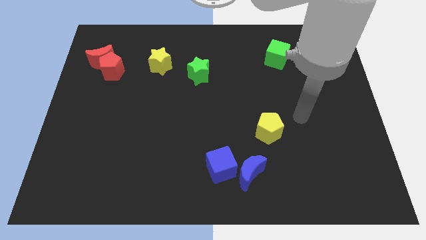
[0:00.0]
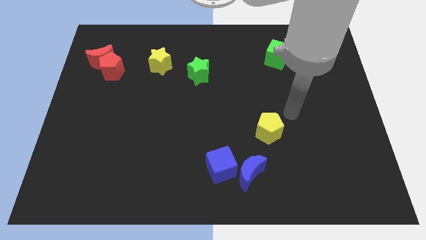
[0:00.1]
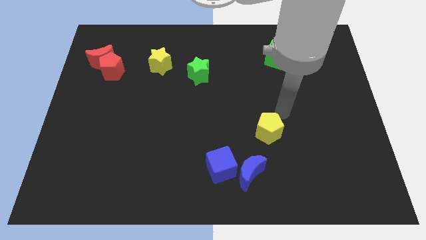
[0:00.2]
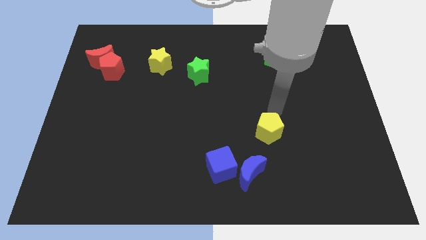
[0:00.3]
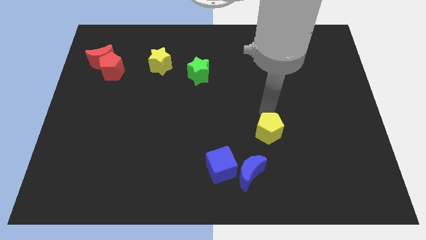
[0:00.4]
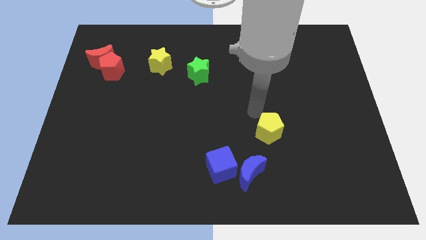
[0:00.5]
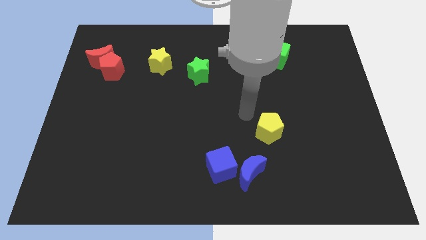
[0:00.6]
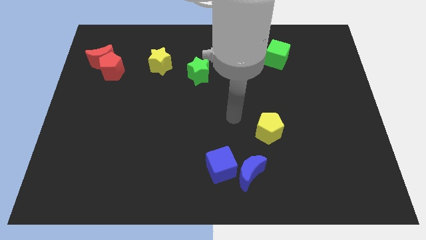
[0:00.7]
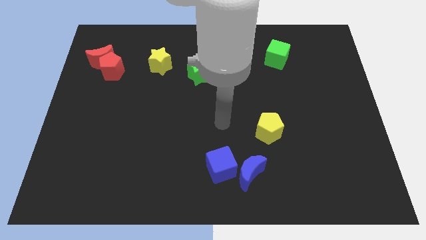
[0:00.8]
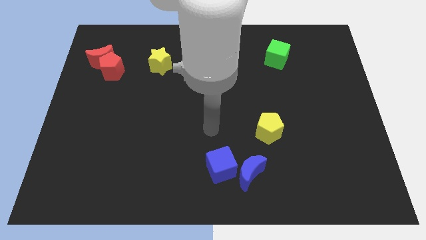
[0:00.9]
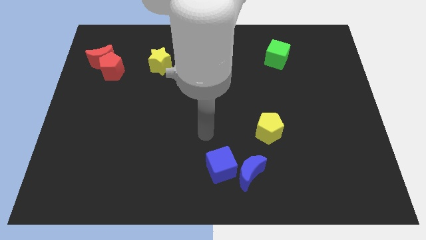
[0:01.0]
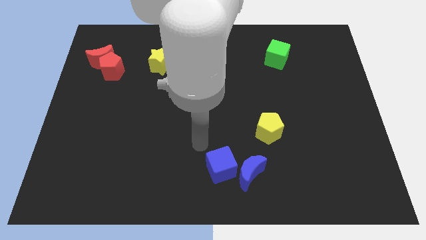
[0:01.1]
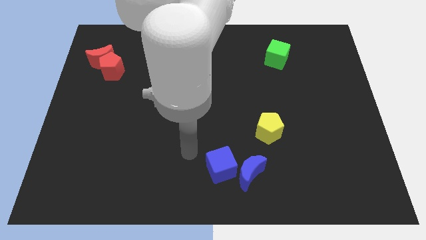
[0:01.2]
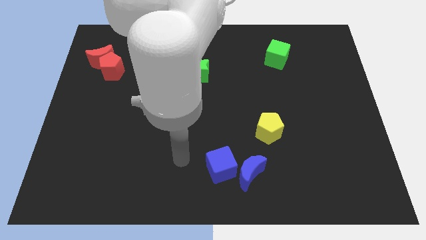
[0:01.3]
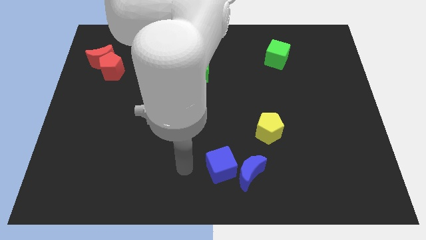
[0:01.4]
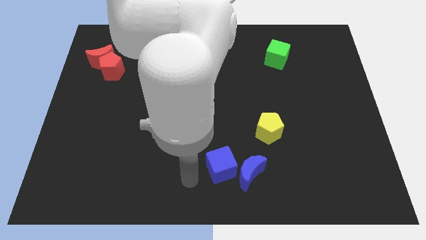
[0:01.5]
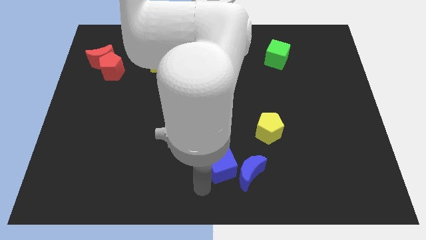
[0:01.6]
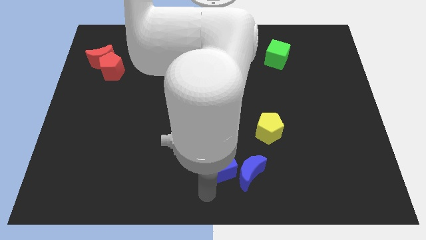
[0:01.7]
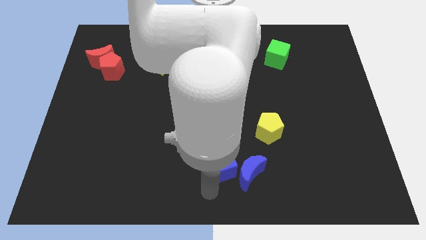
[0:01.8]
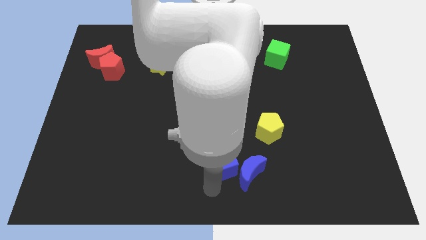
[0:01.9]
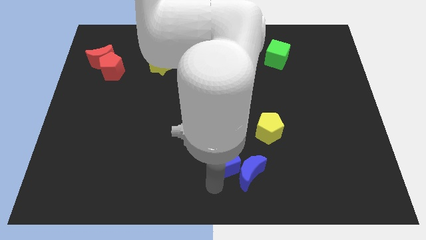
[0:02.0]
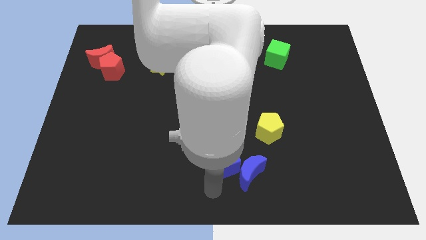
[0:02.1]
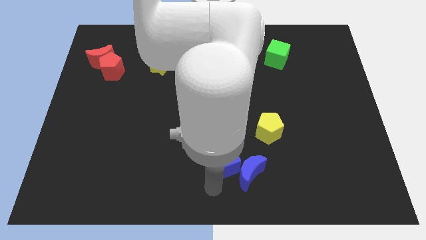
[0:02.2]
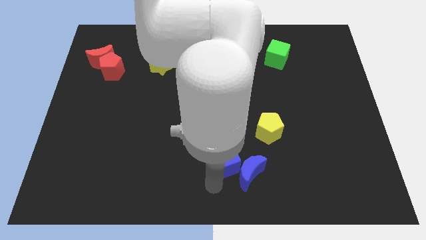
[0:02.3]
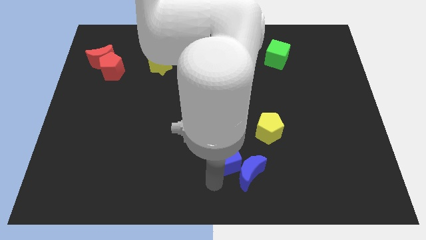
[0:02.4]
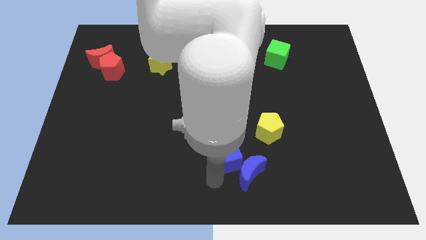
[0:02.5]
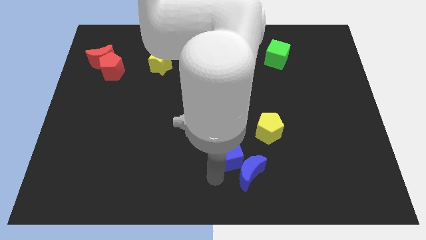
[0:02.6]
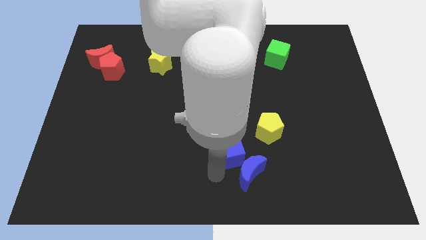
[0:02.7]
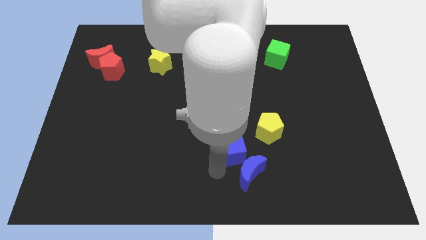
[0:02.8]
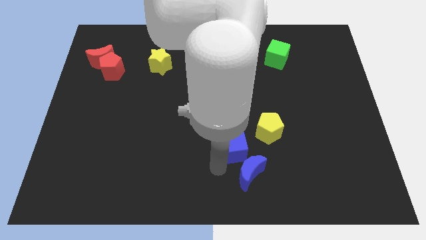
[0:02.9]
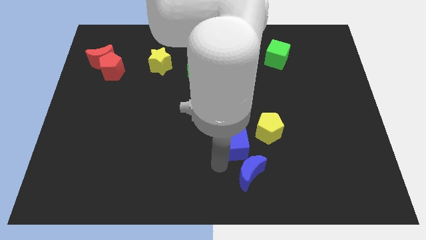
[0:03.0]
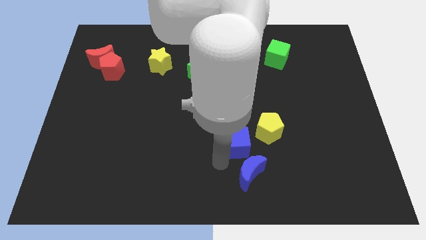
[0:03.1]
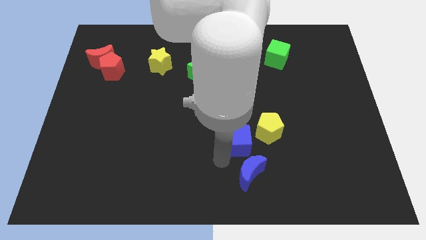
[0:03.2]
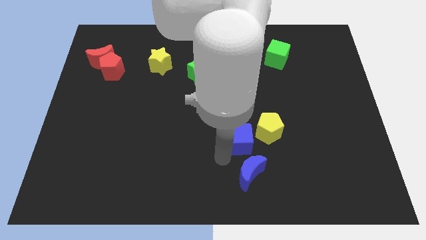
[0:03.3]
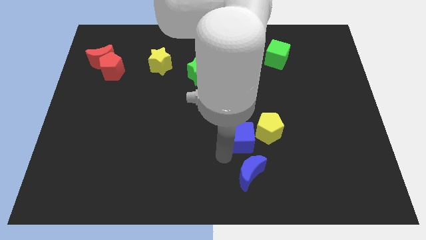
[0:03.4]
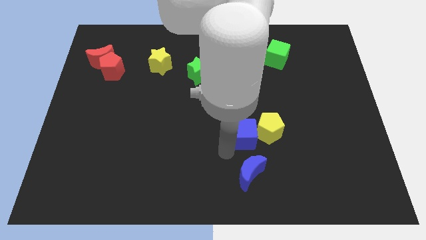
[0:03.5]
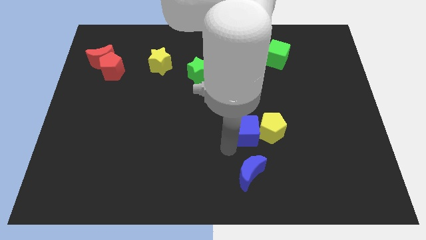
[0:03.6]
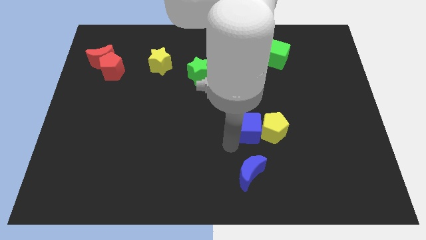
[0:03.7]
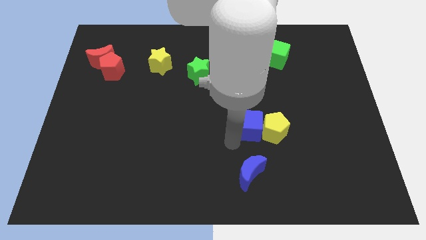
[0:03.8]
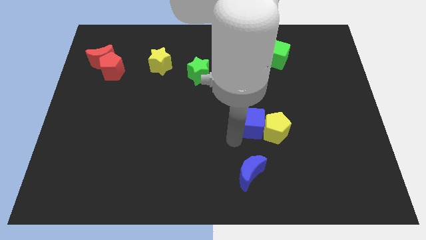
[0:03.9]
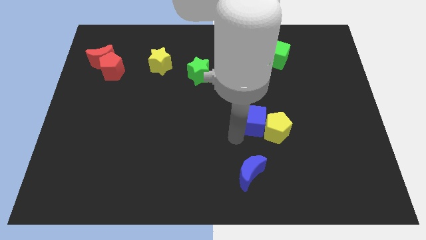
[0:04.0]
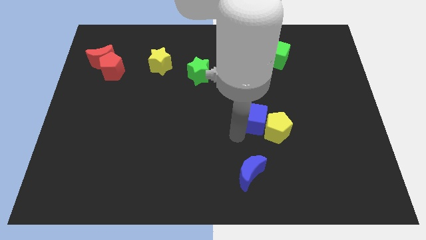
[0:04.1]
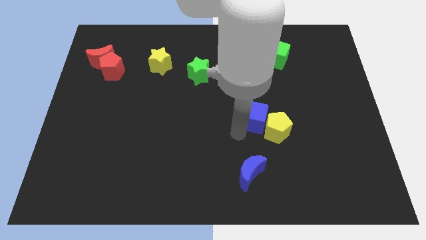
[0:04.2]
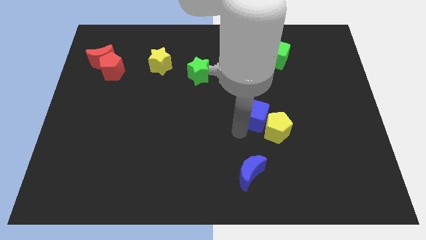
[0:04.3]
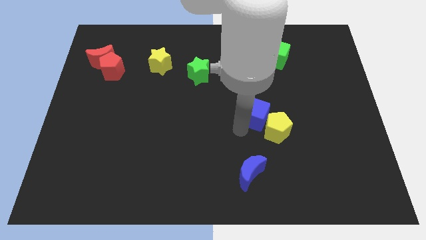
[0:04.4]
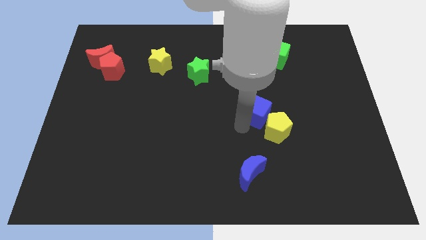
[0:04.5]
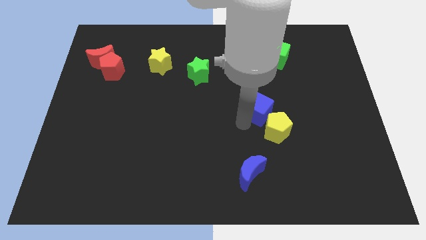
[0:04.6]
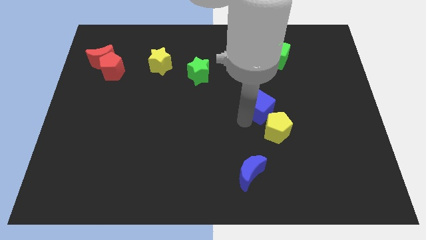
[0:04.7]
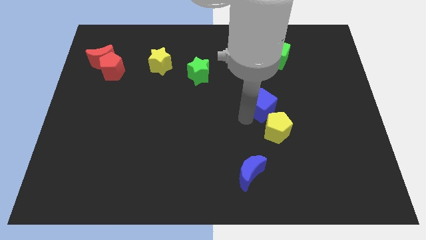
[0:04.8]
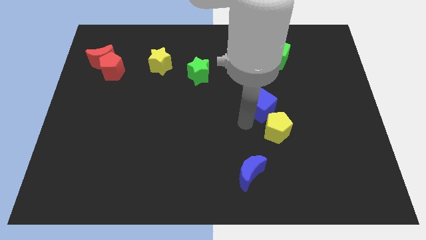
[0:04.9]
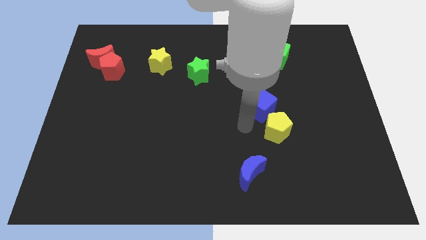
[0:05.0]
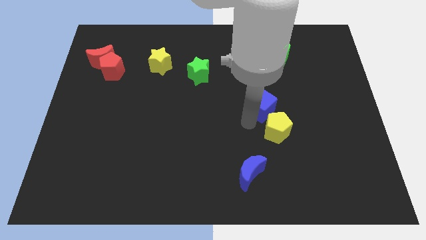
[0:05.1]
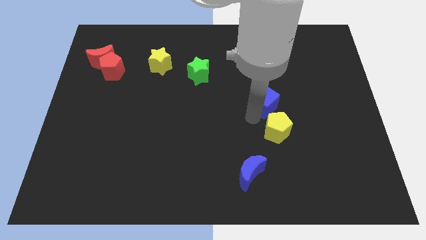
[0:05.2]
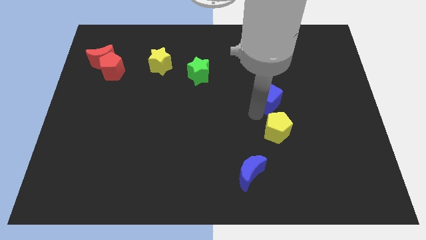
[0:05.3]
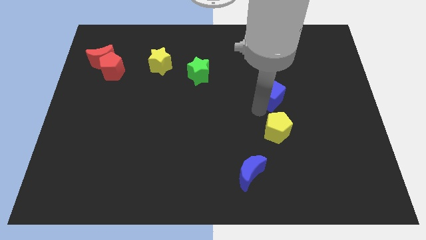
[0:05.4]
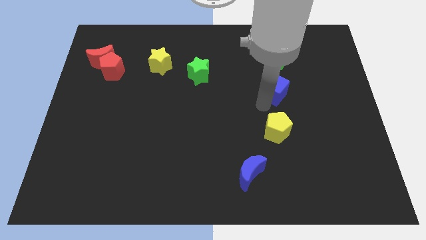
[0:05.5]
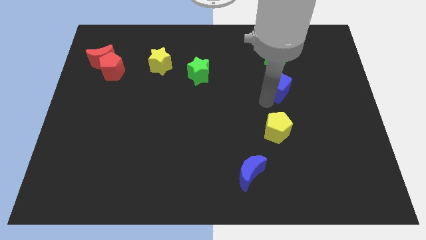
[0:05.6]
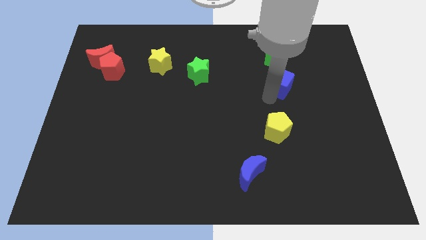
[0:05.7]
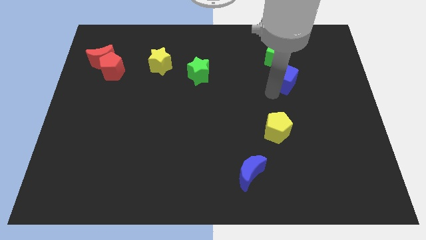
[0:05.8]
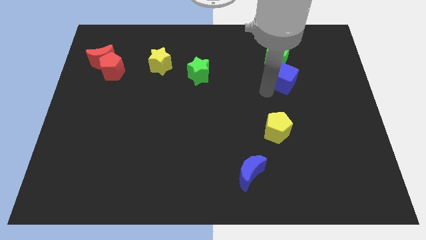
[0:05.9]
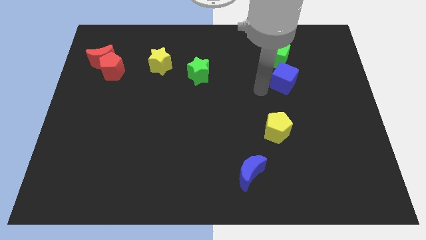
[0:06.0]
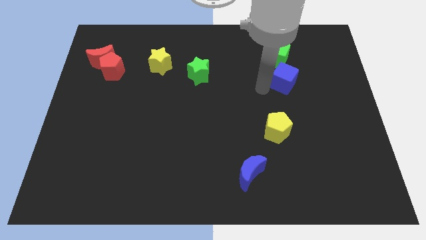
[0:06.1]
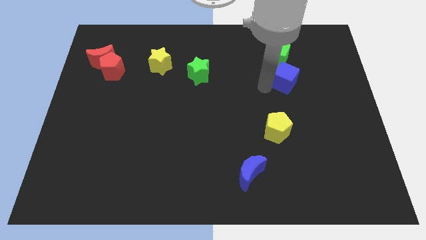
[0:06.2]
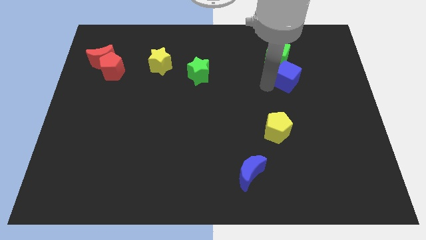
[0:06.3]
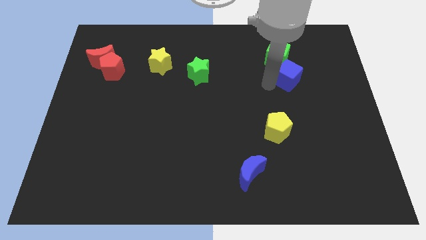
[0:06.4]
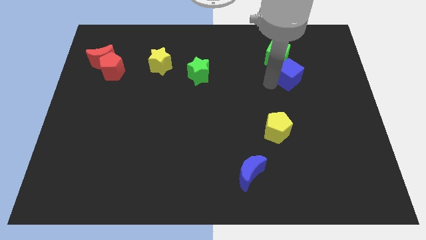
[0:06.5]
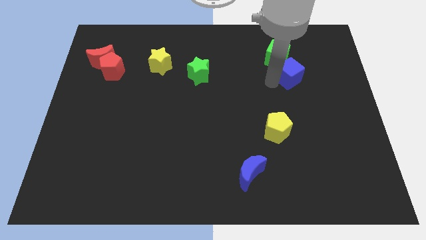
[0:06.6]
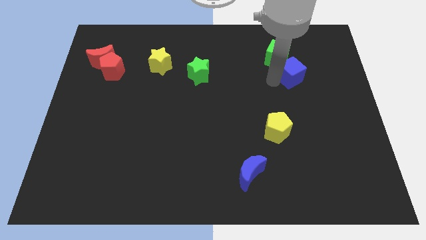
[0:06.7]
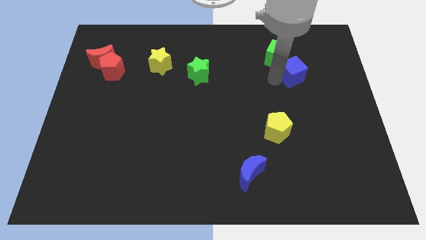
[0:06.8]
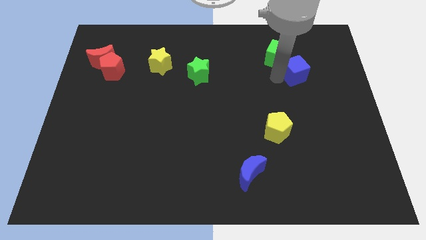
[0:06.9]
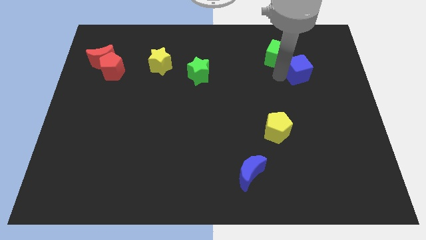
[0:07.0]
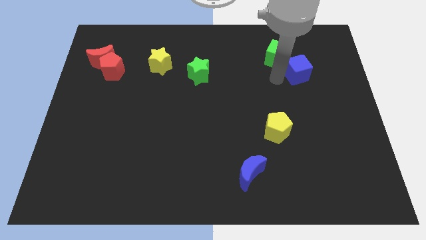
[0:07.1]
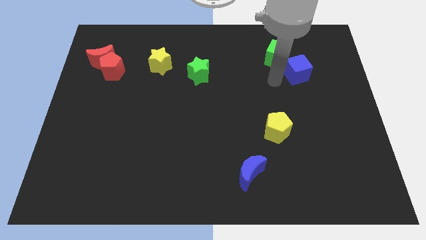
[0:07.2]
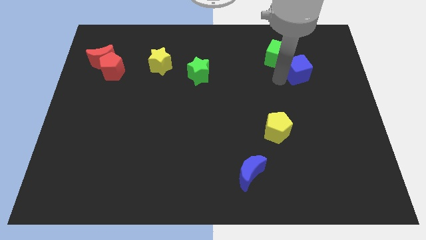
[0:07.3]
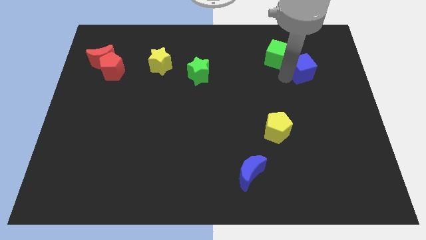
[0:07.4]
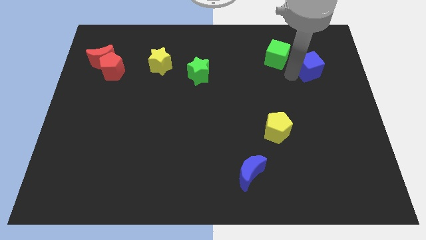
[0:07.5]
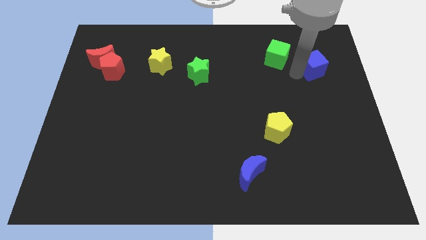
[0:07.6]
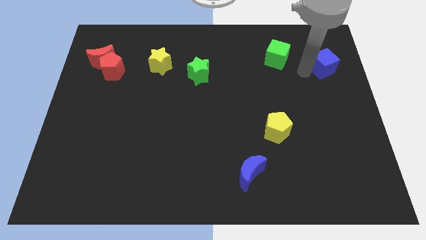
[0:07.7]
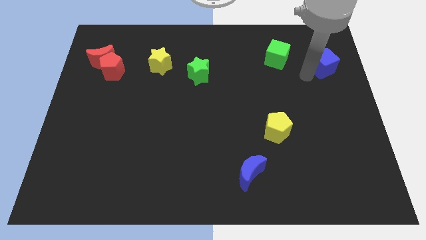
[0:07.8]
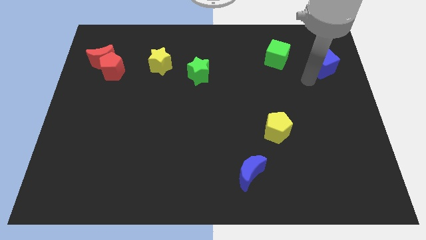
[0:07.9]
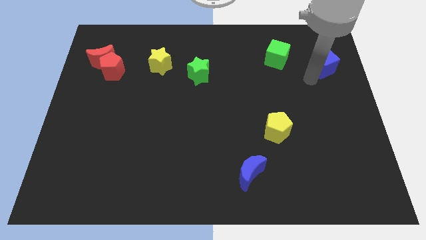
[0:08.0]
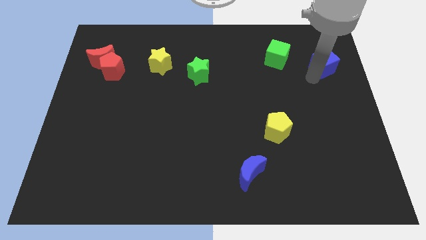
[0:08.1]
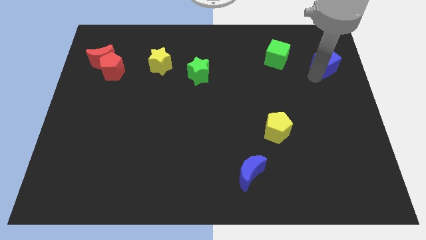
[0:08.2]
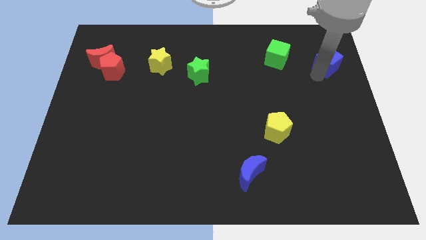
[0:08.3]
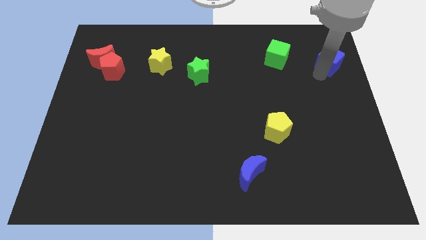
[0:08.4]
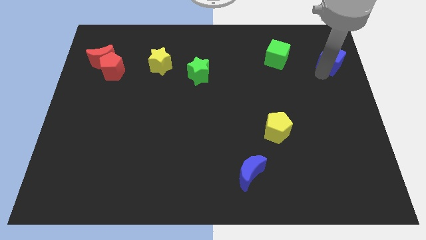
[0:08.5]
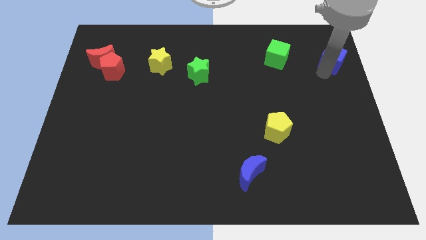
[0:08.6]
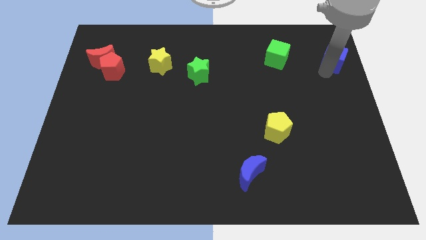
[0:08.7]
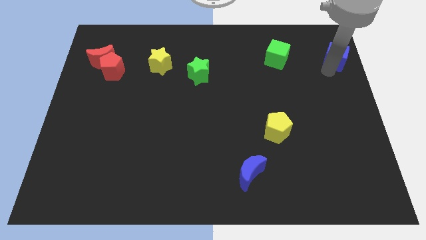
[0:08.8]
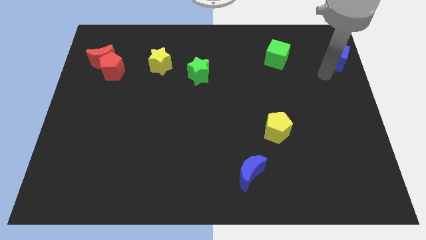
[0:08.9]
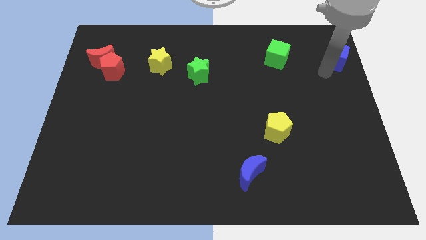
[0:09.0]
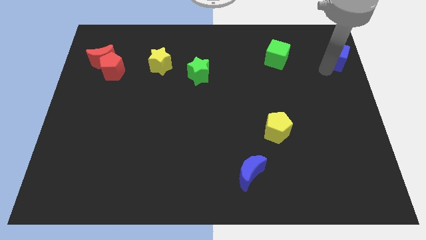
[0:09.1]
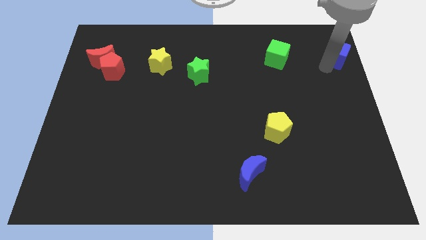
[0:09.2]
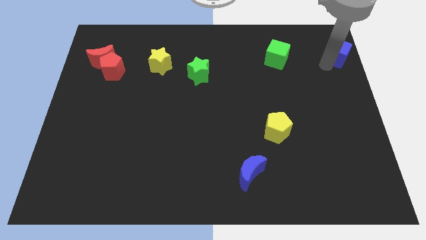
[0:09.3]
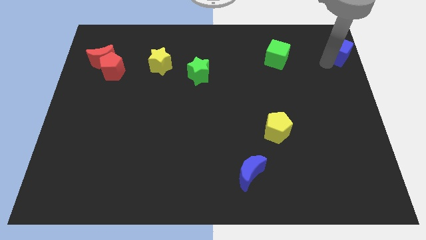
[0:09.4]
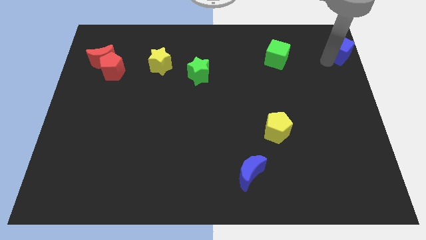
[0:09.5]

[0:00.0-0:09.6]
slide the blue cube to the top right corner
